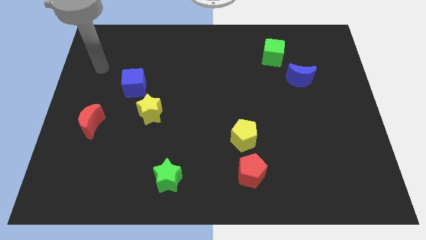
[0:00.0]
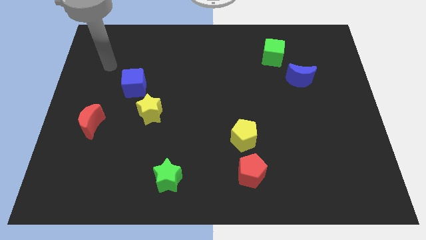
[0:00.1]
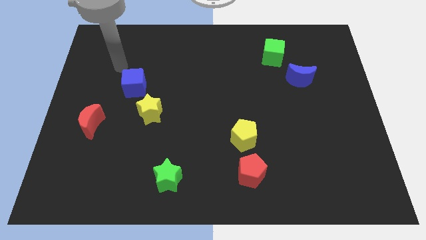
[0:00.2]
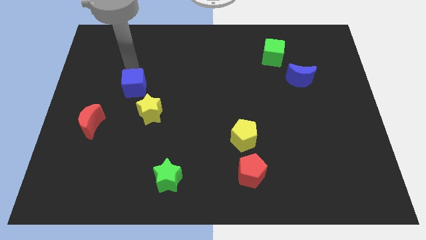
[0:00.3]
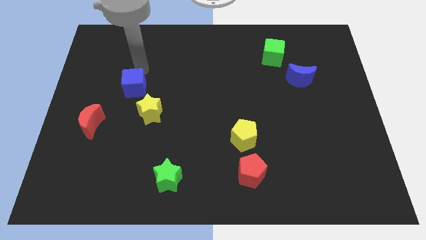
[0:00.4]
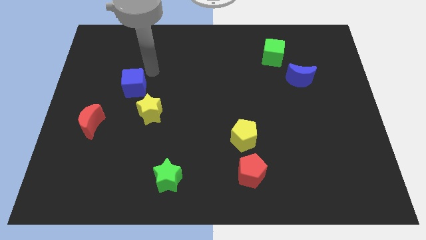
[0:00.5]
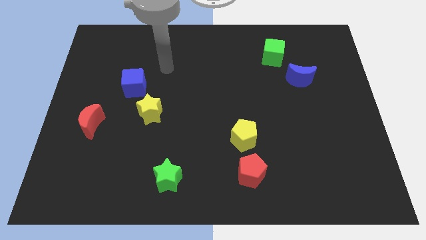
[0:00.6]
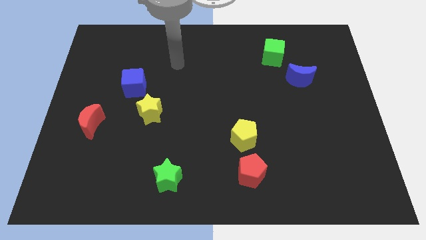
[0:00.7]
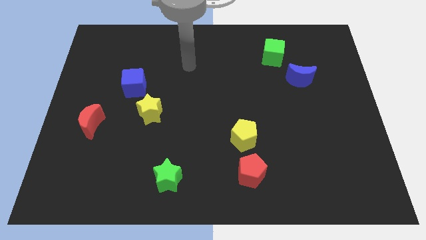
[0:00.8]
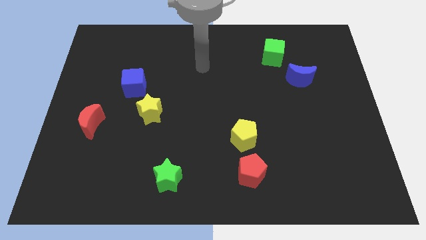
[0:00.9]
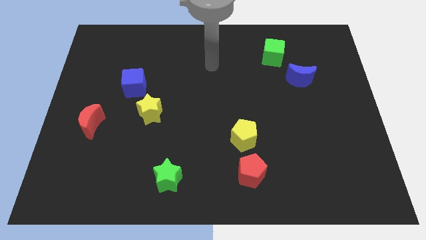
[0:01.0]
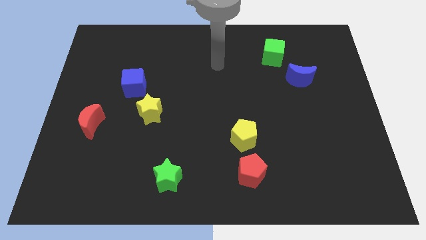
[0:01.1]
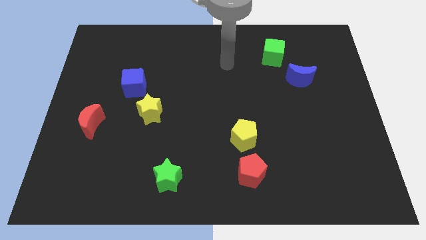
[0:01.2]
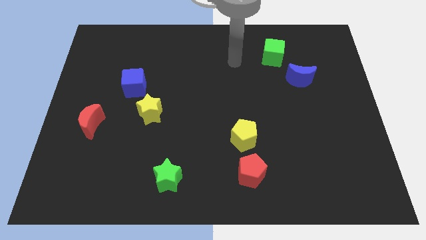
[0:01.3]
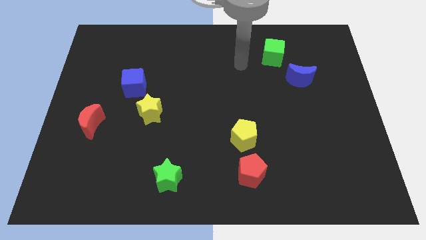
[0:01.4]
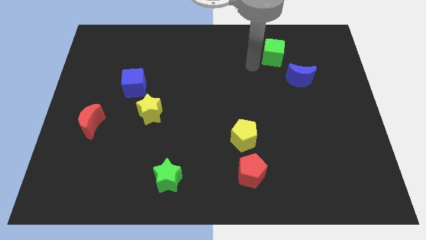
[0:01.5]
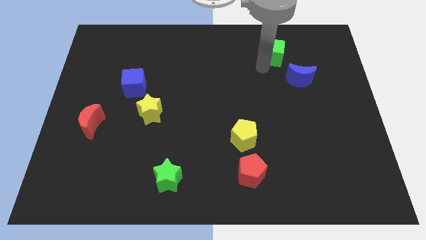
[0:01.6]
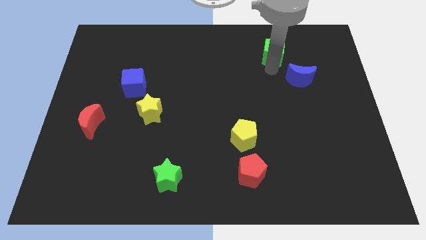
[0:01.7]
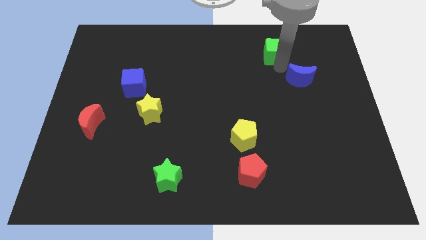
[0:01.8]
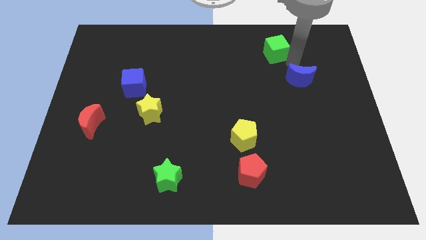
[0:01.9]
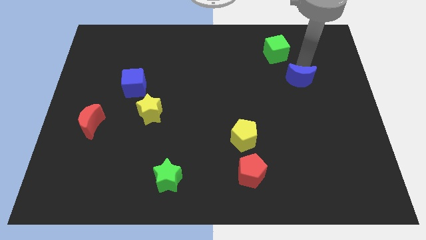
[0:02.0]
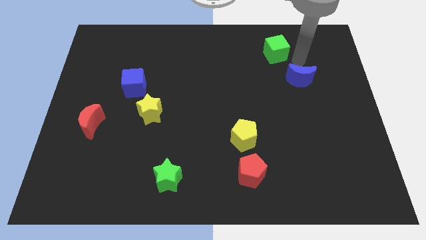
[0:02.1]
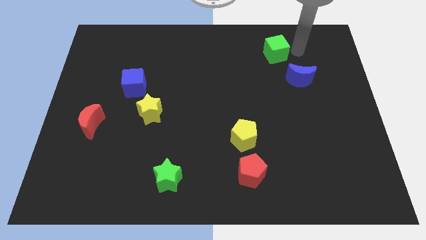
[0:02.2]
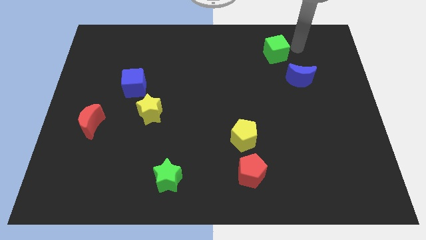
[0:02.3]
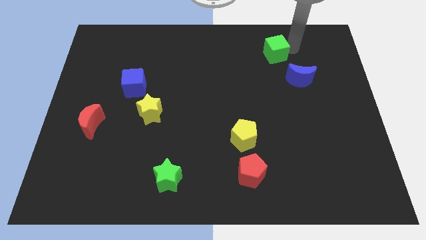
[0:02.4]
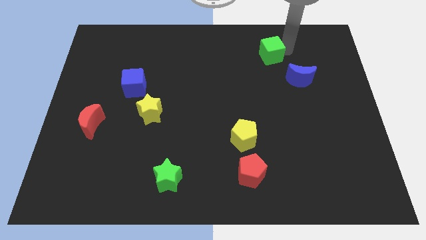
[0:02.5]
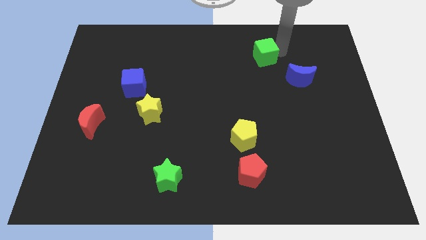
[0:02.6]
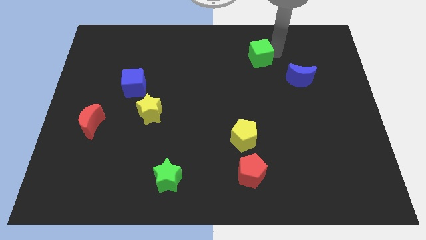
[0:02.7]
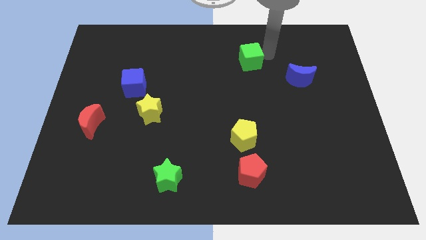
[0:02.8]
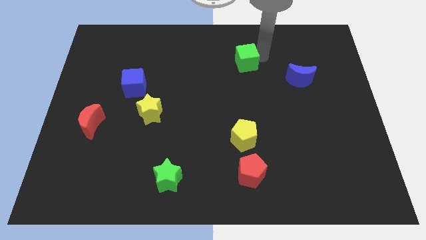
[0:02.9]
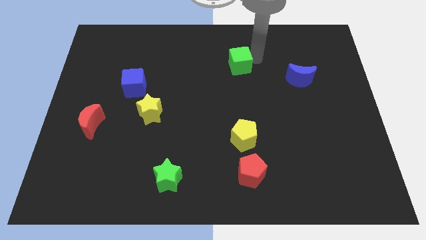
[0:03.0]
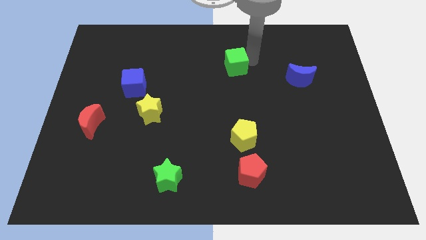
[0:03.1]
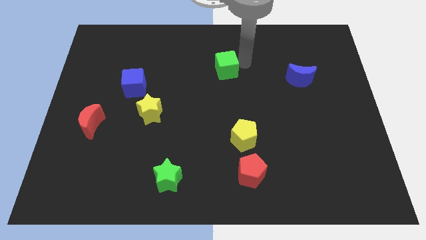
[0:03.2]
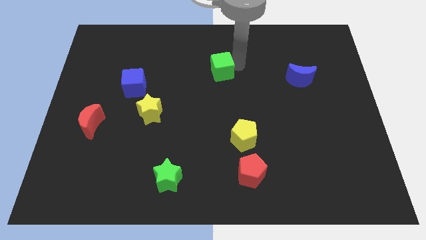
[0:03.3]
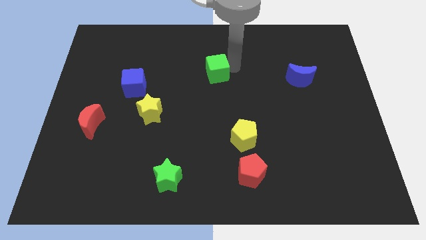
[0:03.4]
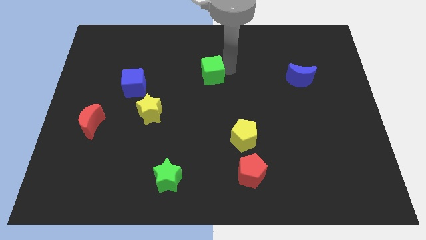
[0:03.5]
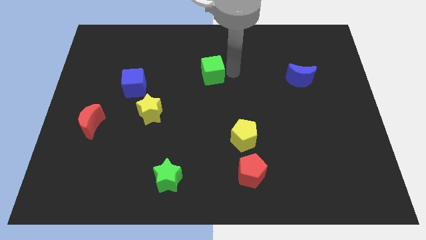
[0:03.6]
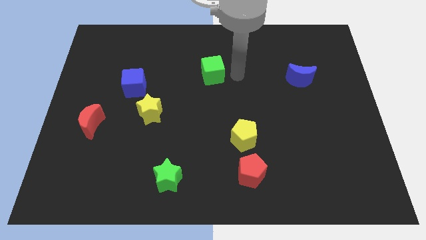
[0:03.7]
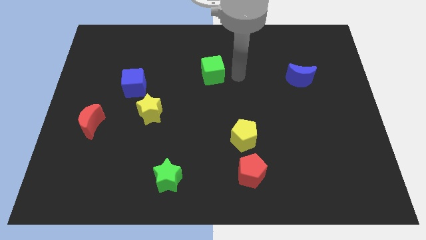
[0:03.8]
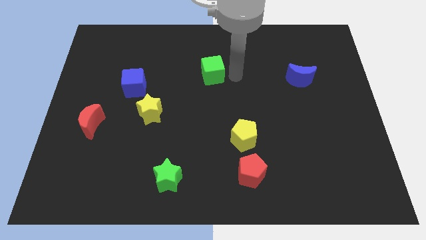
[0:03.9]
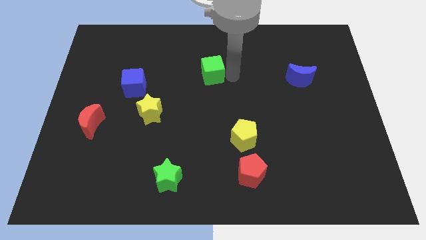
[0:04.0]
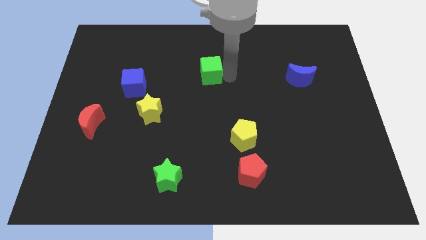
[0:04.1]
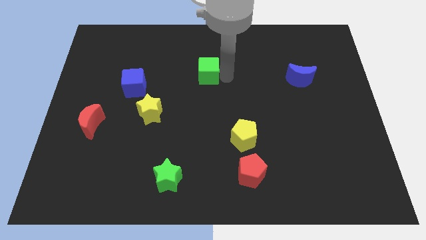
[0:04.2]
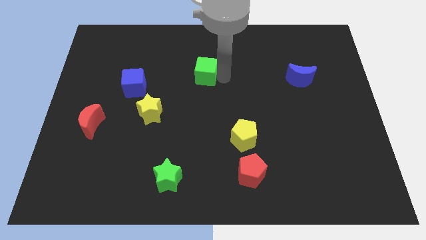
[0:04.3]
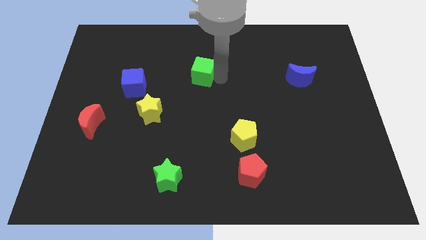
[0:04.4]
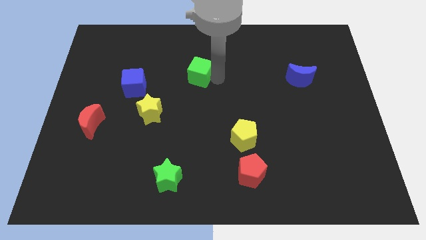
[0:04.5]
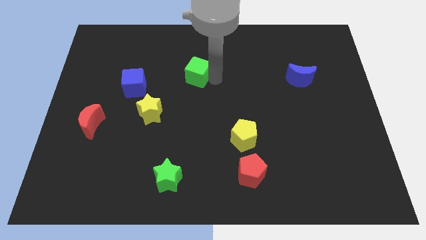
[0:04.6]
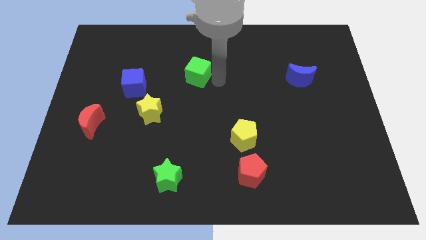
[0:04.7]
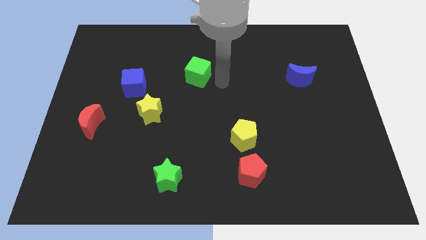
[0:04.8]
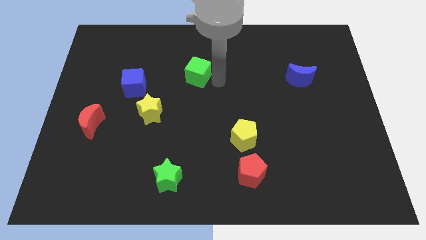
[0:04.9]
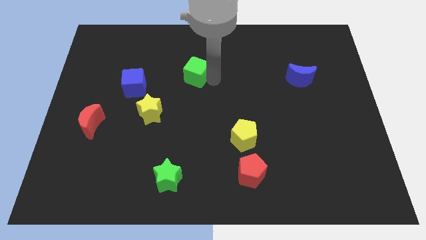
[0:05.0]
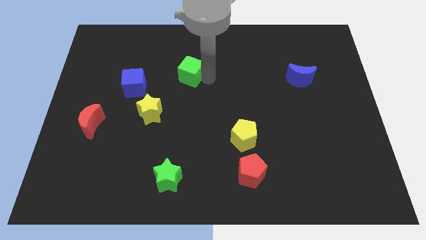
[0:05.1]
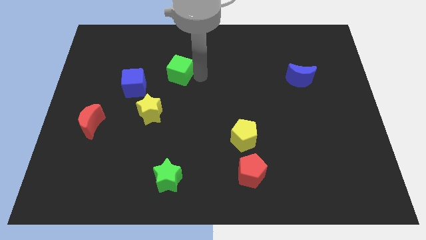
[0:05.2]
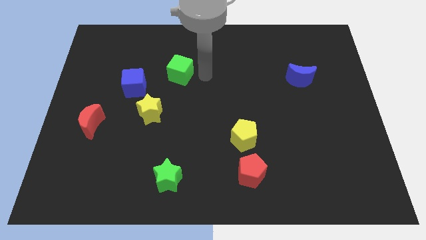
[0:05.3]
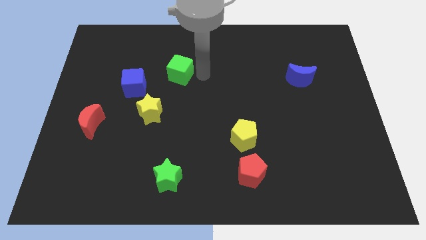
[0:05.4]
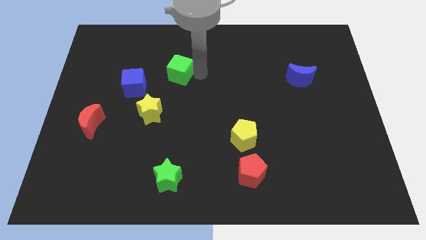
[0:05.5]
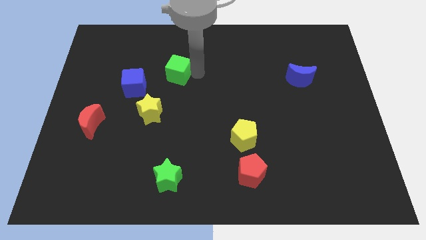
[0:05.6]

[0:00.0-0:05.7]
move the green cube to the top right side of the blue cube

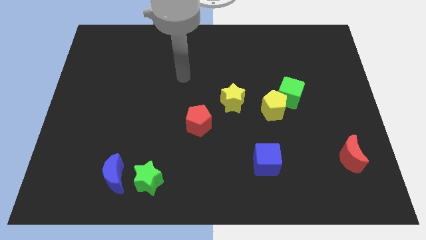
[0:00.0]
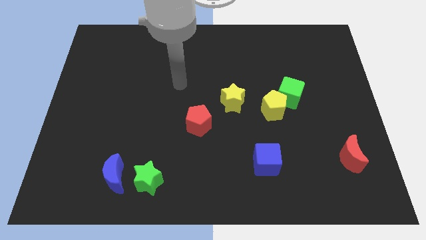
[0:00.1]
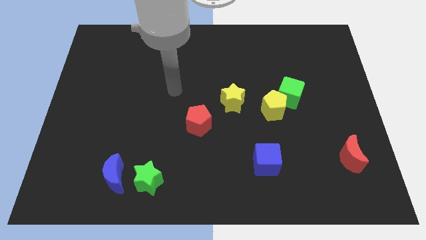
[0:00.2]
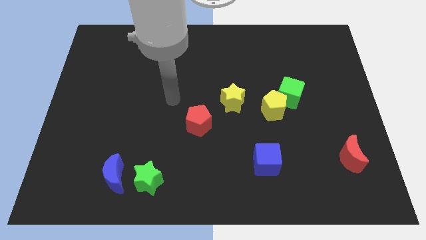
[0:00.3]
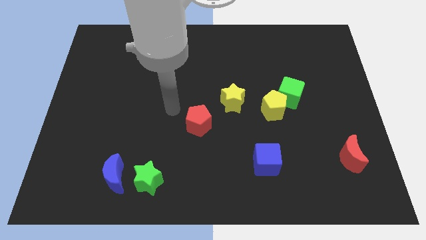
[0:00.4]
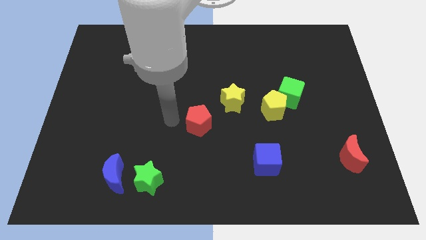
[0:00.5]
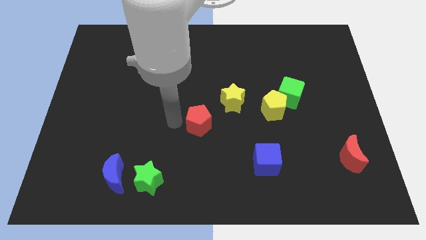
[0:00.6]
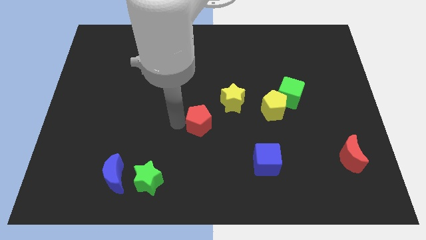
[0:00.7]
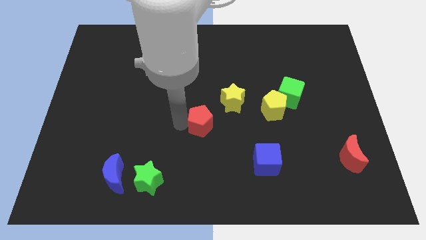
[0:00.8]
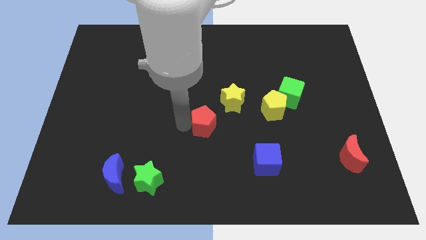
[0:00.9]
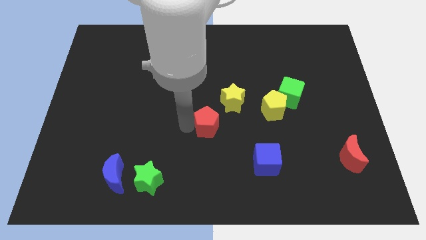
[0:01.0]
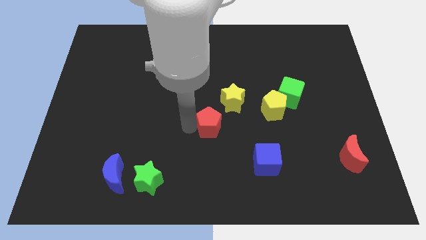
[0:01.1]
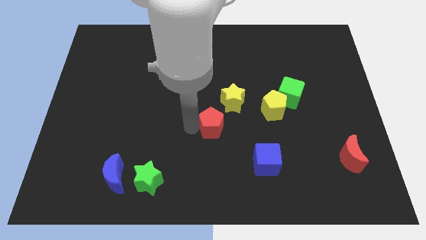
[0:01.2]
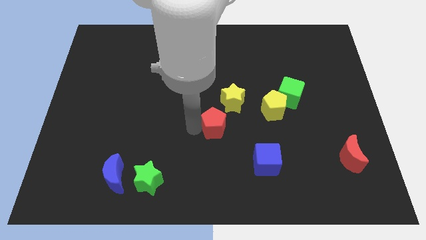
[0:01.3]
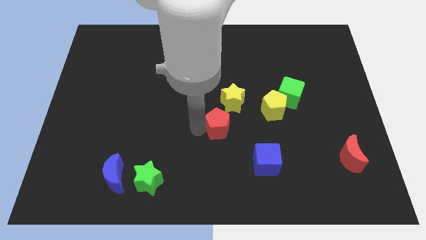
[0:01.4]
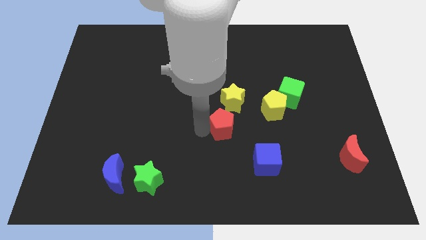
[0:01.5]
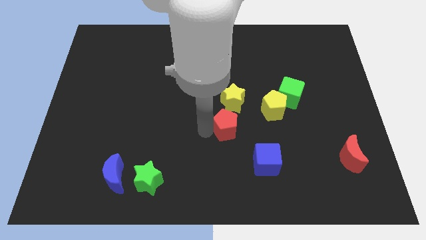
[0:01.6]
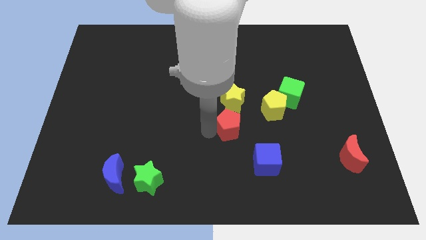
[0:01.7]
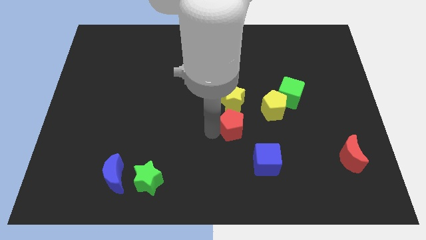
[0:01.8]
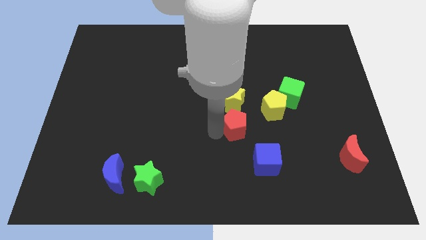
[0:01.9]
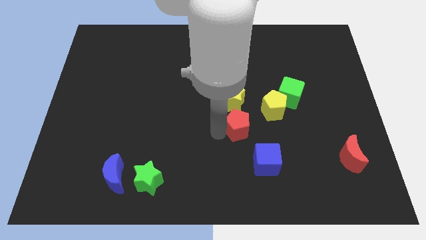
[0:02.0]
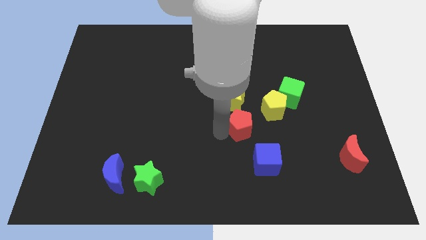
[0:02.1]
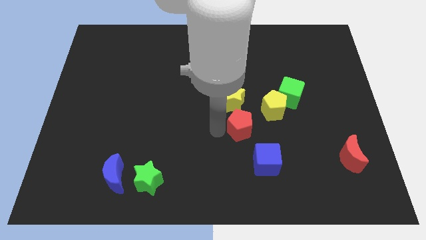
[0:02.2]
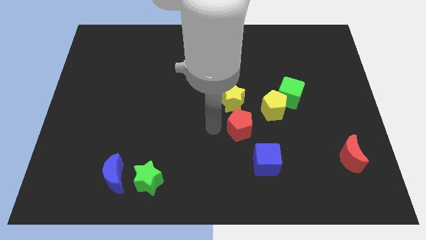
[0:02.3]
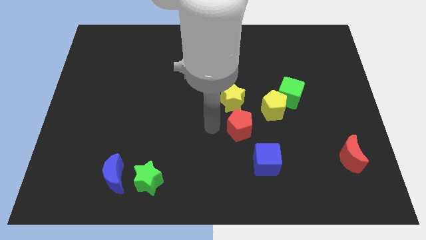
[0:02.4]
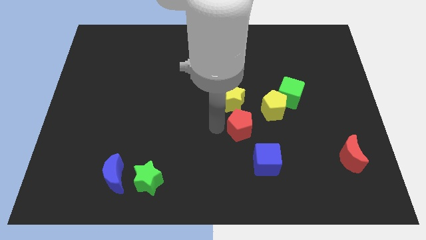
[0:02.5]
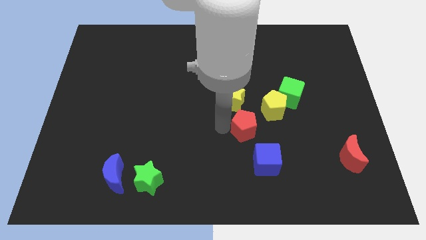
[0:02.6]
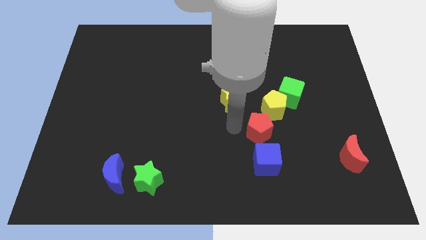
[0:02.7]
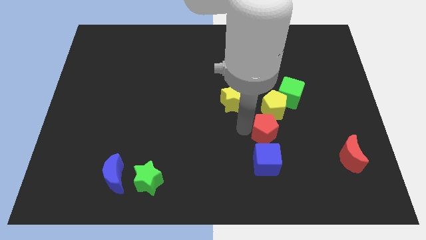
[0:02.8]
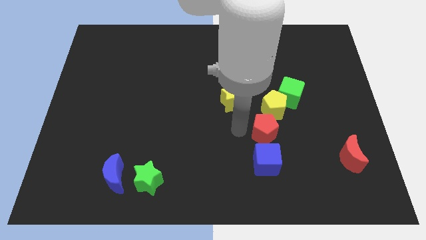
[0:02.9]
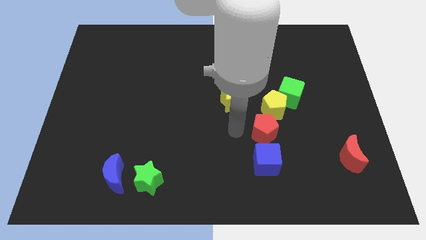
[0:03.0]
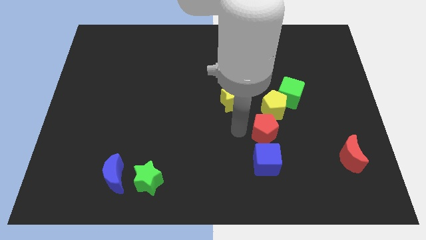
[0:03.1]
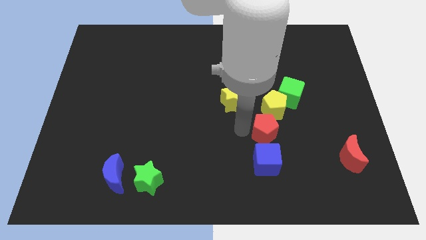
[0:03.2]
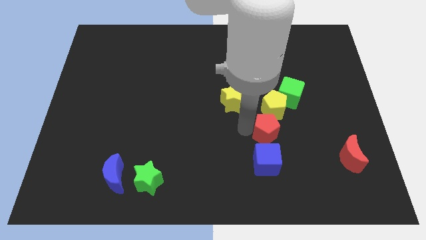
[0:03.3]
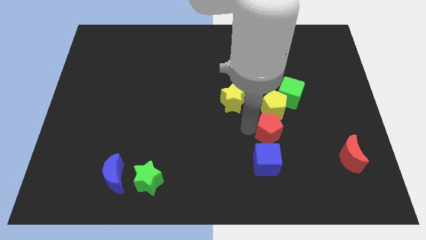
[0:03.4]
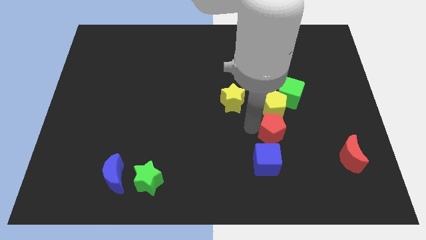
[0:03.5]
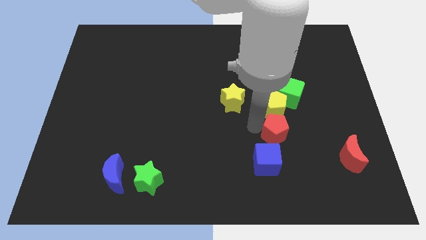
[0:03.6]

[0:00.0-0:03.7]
push the red pentagon to the bottom side of the green cube
